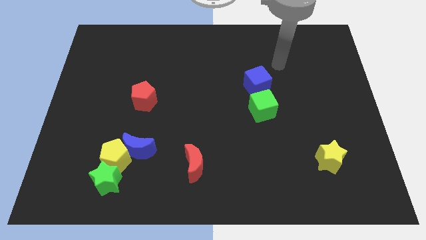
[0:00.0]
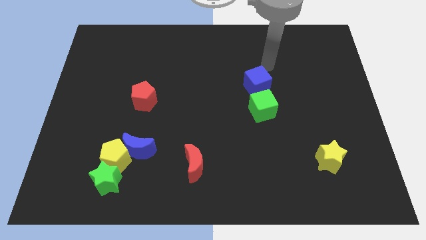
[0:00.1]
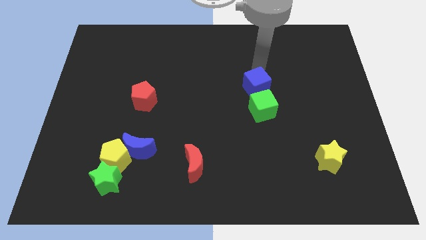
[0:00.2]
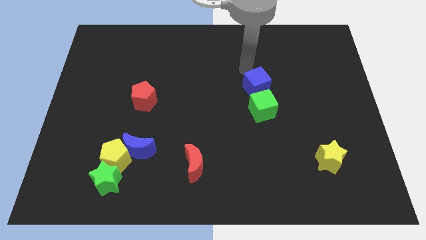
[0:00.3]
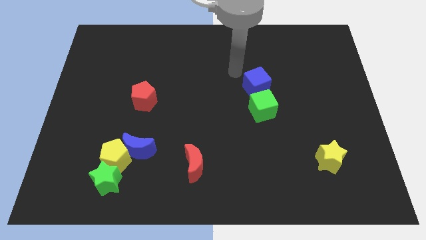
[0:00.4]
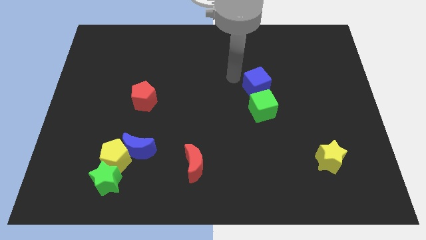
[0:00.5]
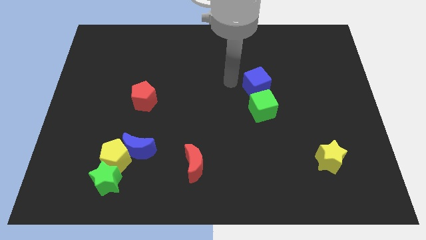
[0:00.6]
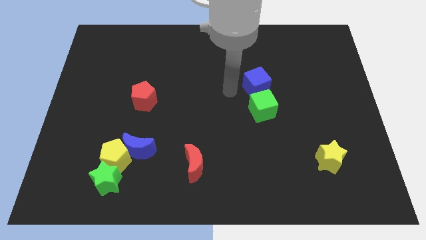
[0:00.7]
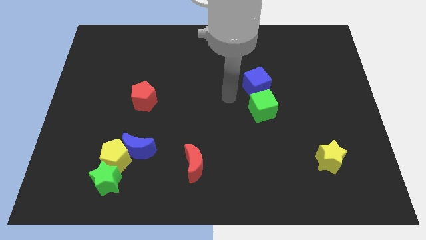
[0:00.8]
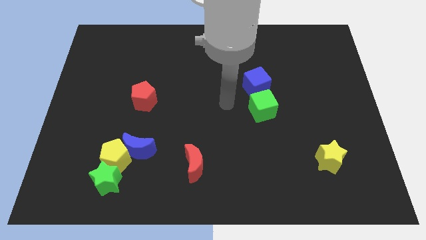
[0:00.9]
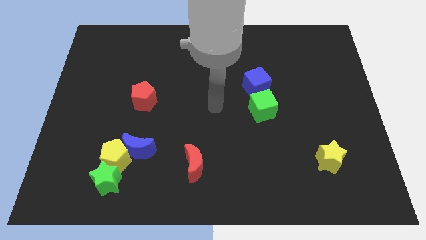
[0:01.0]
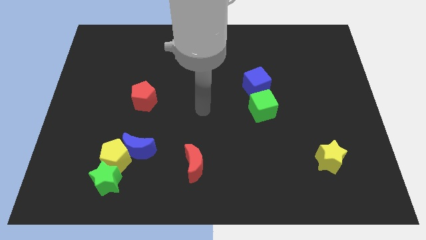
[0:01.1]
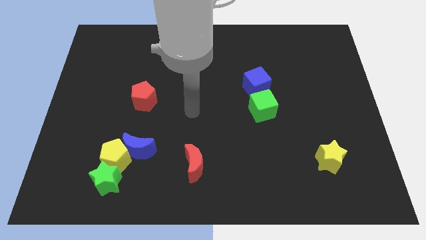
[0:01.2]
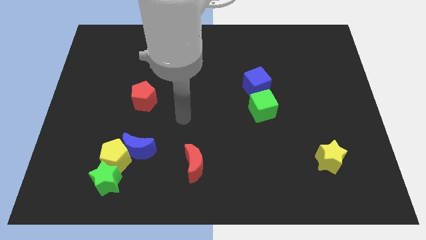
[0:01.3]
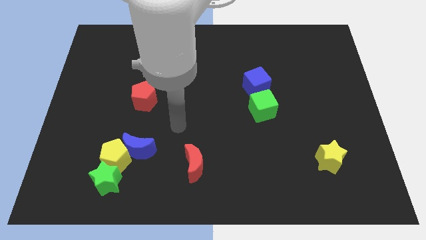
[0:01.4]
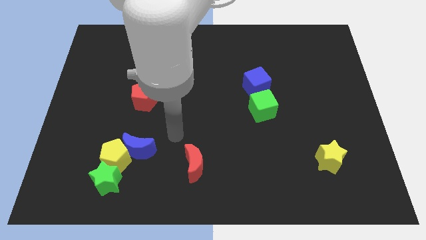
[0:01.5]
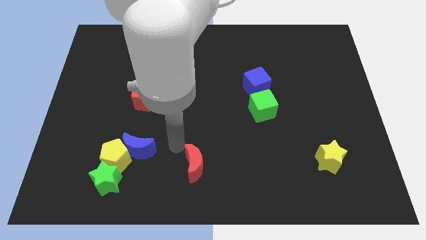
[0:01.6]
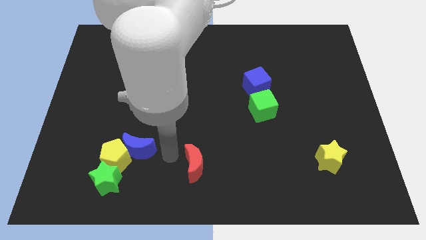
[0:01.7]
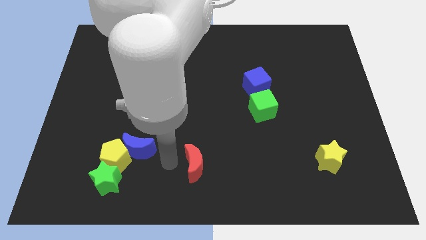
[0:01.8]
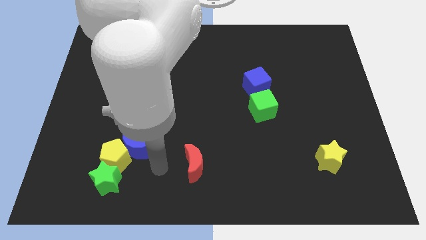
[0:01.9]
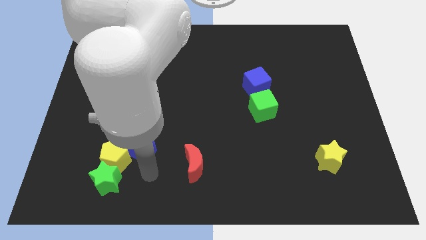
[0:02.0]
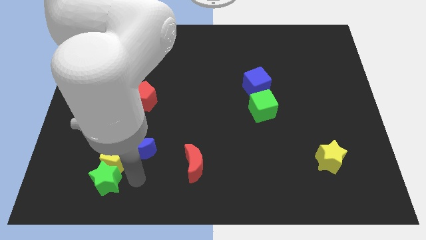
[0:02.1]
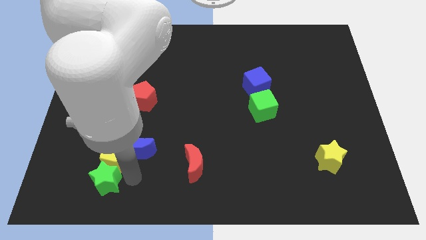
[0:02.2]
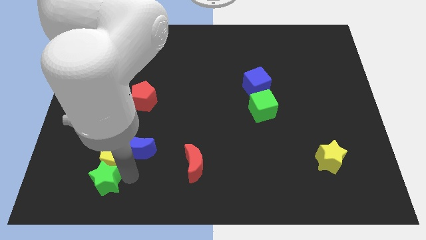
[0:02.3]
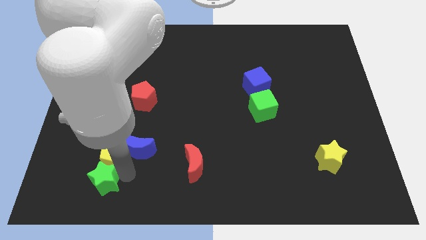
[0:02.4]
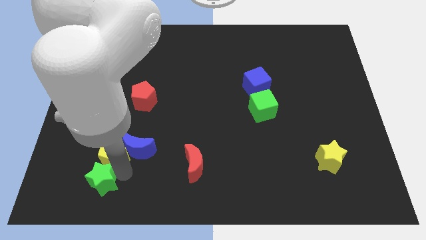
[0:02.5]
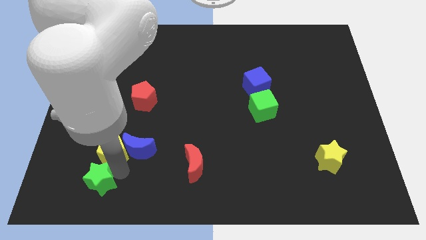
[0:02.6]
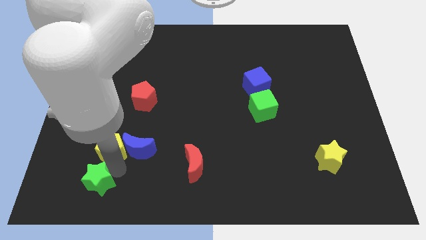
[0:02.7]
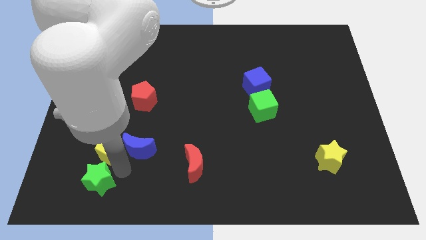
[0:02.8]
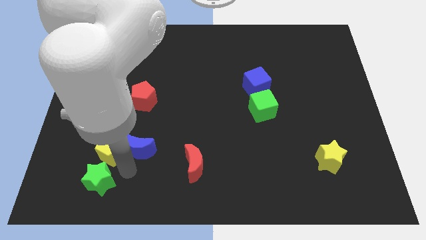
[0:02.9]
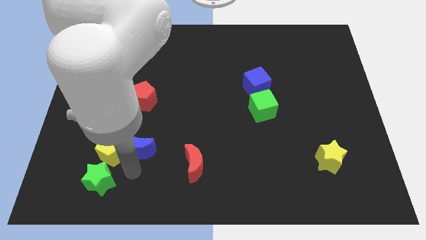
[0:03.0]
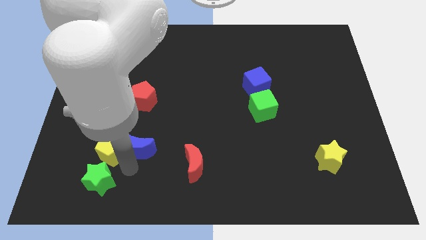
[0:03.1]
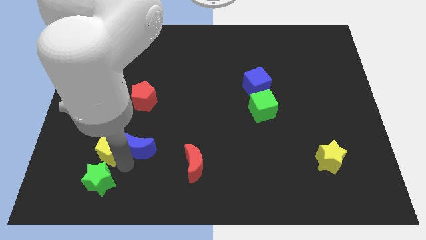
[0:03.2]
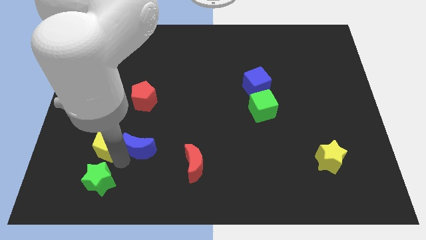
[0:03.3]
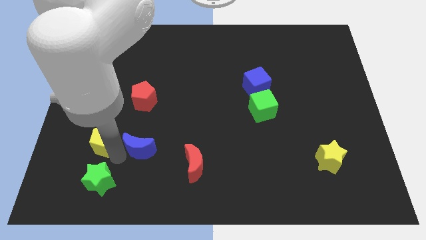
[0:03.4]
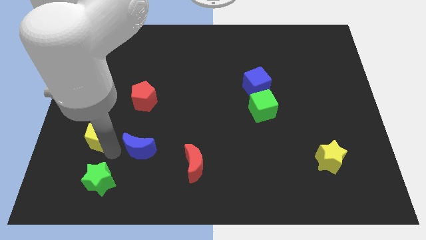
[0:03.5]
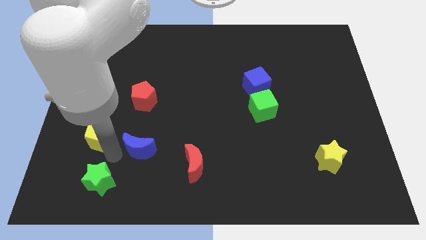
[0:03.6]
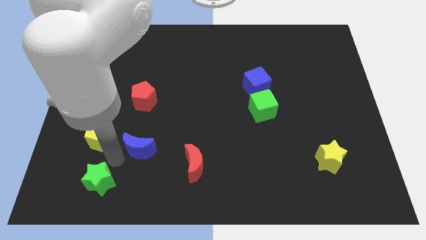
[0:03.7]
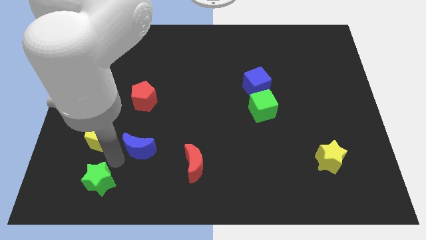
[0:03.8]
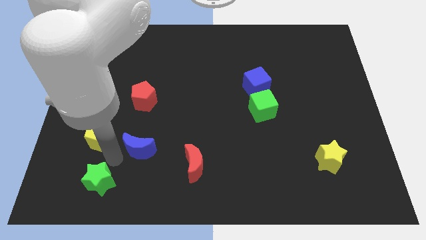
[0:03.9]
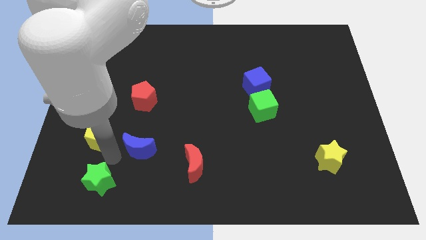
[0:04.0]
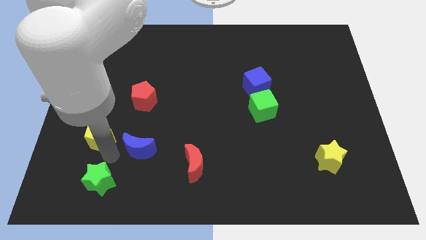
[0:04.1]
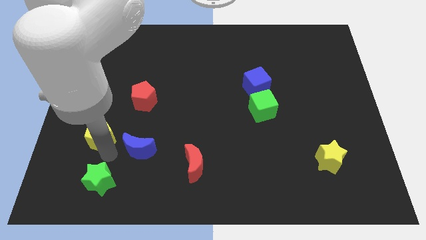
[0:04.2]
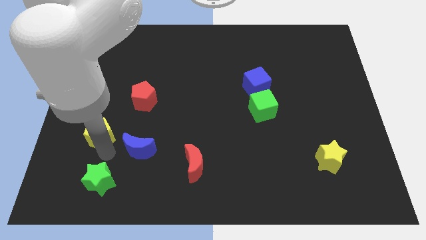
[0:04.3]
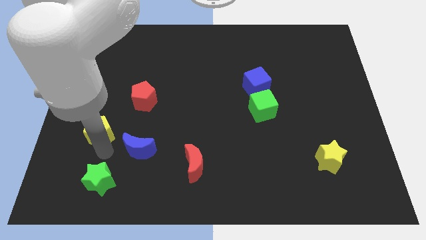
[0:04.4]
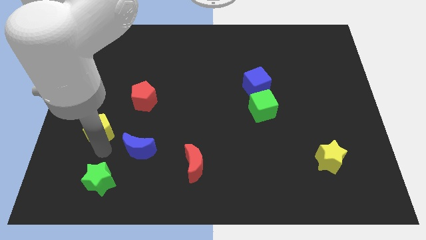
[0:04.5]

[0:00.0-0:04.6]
move the yellow pentagon away from the blue moon and green star

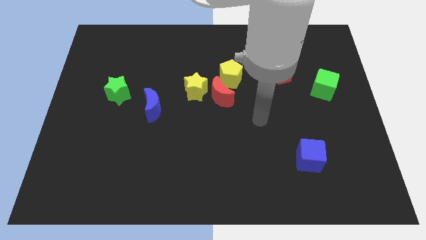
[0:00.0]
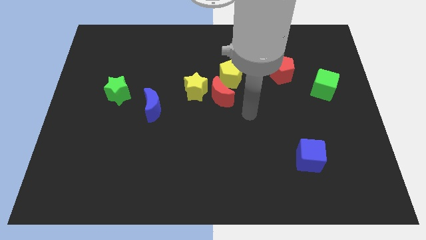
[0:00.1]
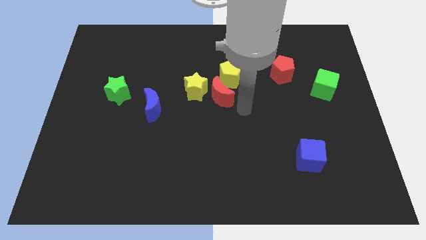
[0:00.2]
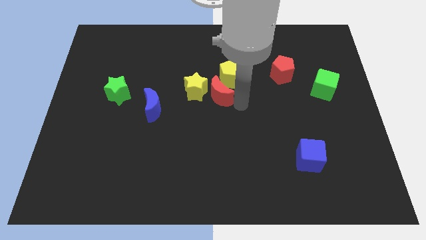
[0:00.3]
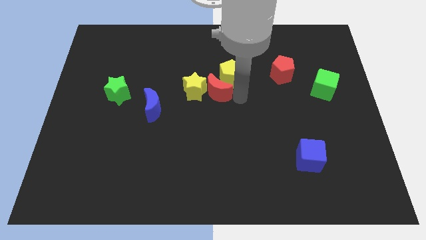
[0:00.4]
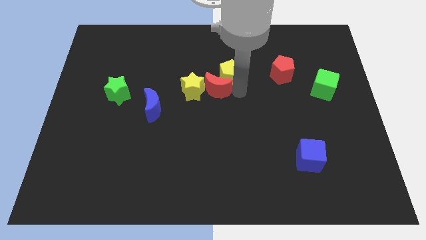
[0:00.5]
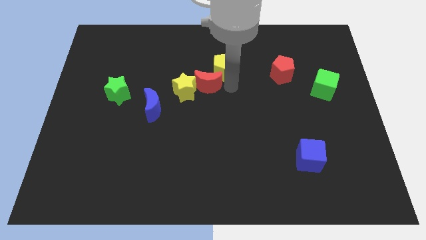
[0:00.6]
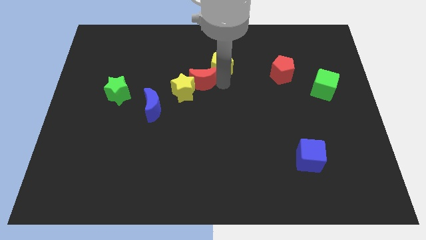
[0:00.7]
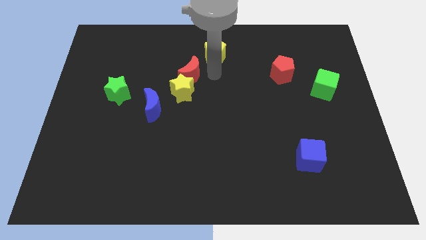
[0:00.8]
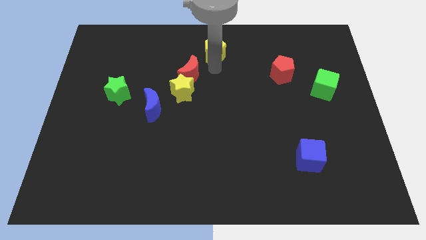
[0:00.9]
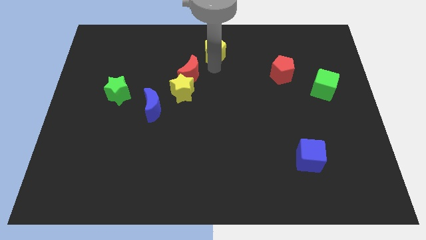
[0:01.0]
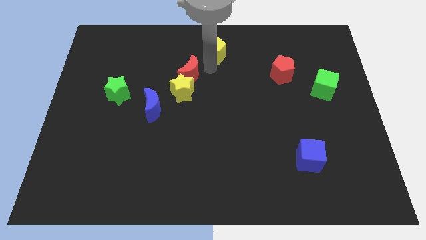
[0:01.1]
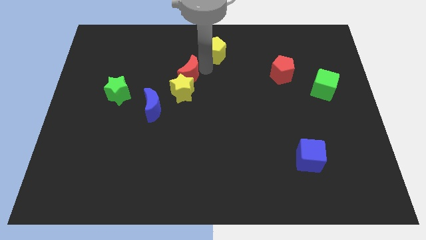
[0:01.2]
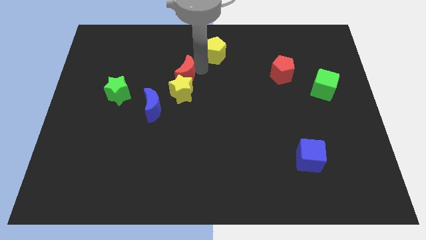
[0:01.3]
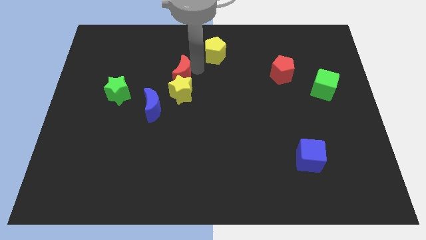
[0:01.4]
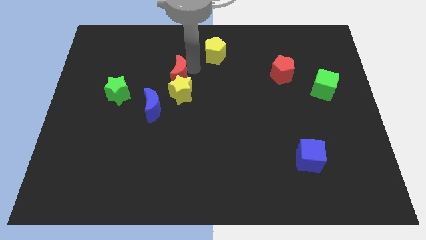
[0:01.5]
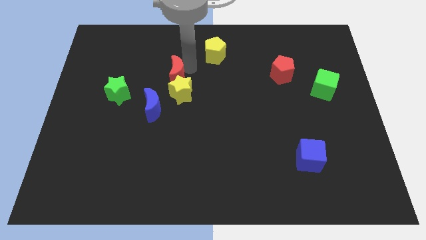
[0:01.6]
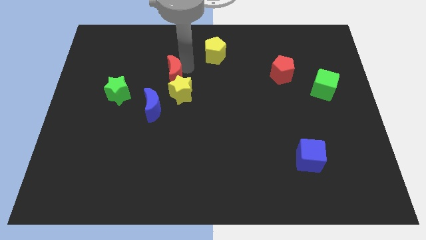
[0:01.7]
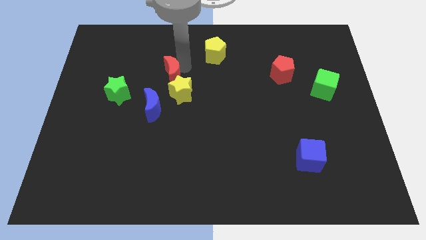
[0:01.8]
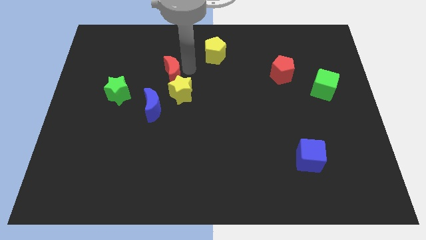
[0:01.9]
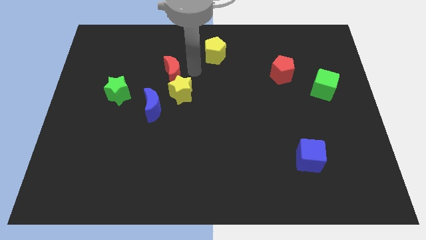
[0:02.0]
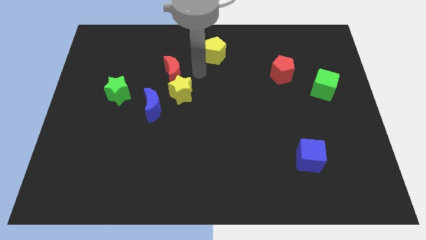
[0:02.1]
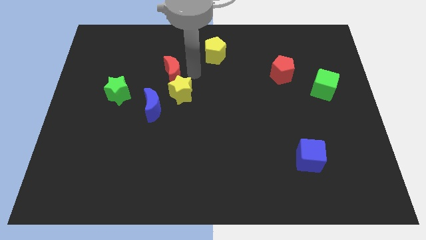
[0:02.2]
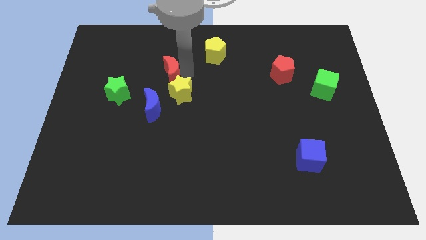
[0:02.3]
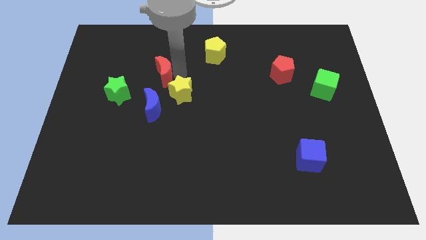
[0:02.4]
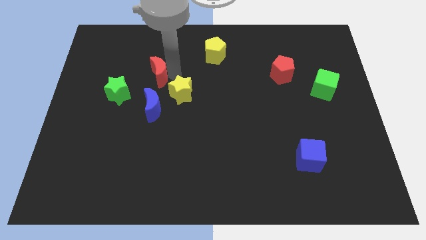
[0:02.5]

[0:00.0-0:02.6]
move the red moon away from the yellow star and yellow pentagon

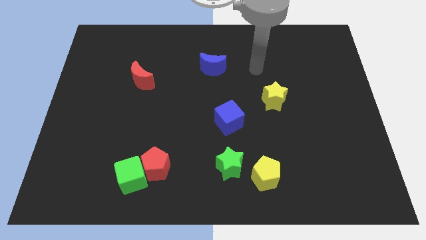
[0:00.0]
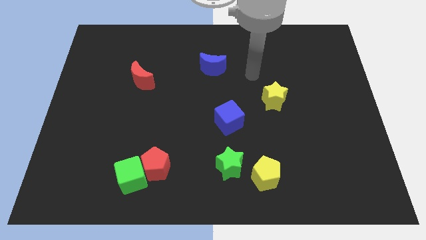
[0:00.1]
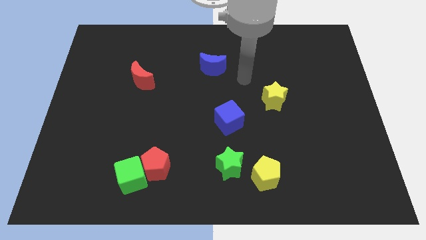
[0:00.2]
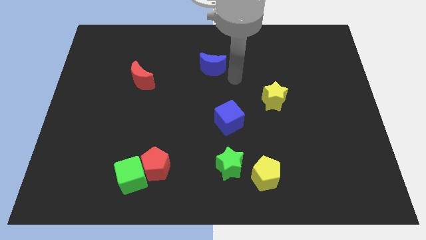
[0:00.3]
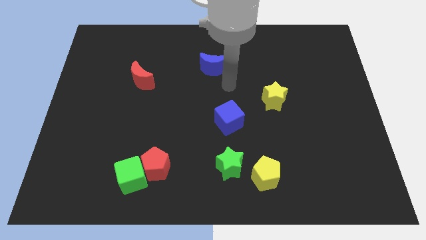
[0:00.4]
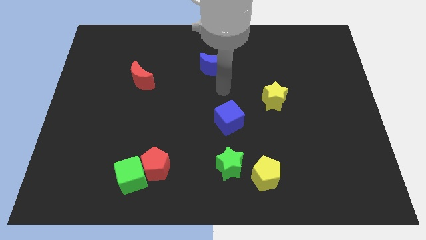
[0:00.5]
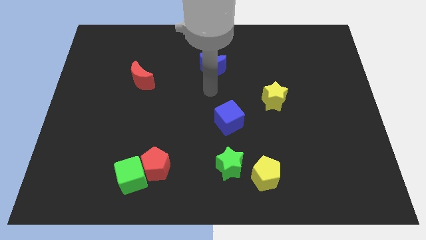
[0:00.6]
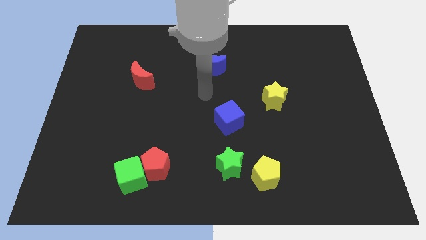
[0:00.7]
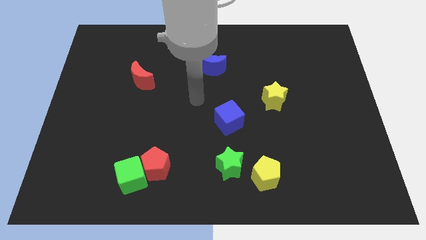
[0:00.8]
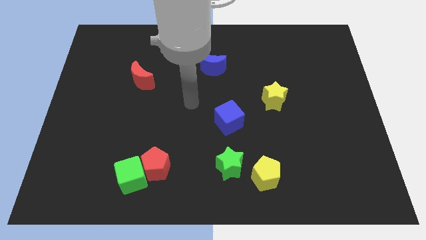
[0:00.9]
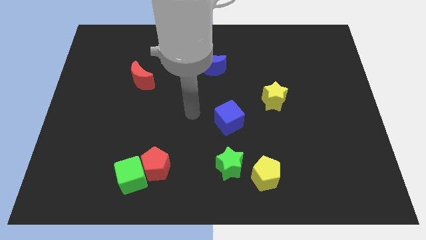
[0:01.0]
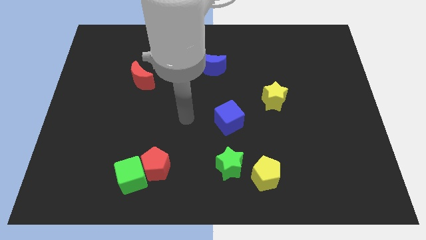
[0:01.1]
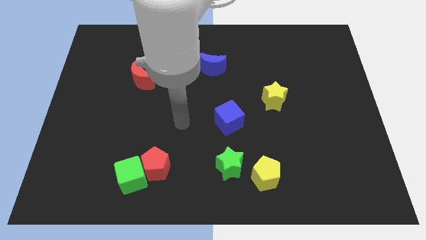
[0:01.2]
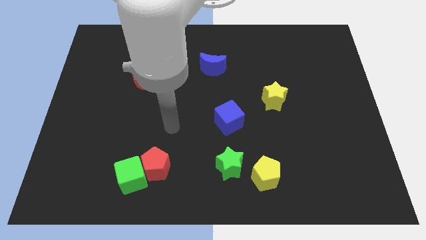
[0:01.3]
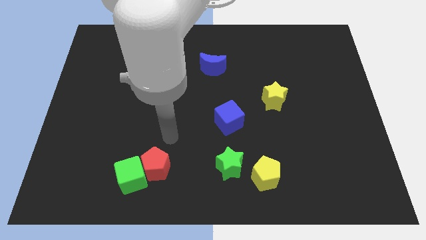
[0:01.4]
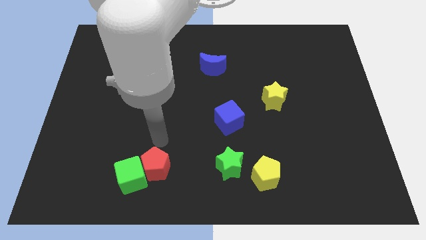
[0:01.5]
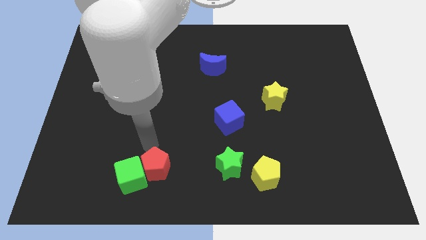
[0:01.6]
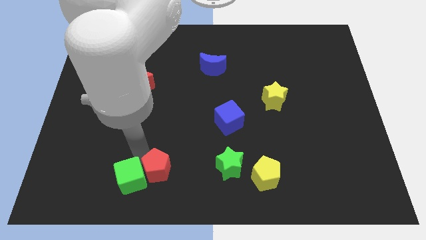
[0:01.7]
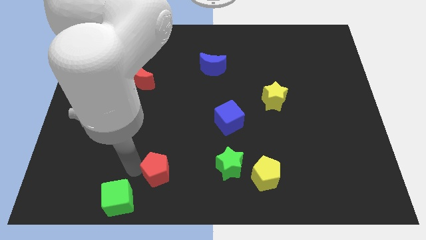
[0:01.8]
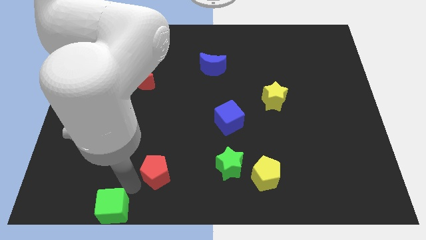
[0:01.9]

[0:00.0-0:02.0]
move the red pentagon away from the green cube
